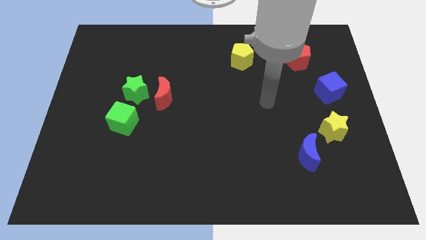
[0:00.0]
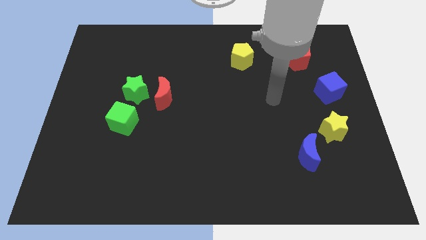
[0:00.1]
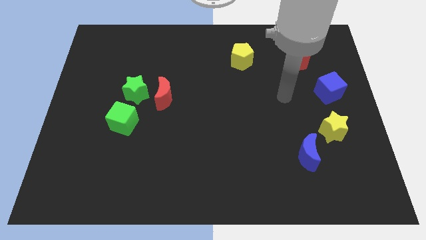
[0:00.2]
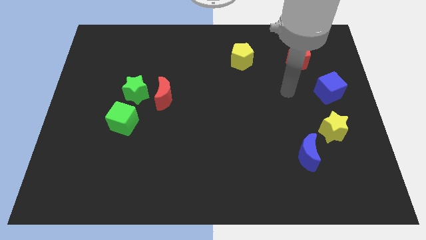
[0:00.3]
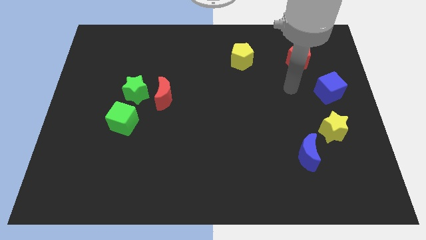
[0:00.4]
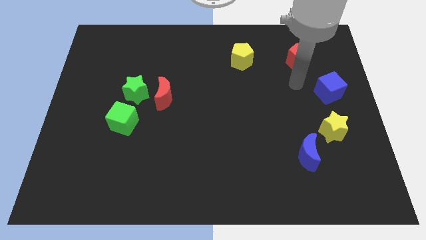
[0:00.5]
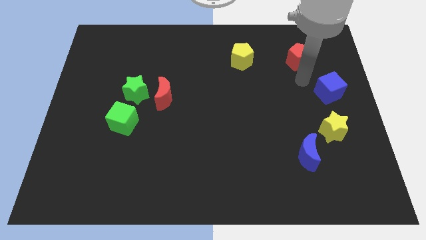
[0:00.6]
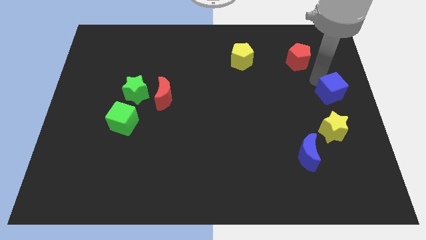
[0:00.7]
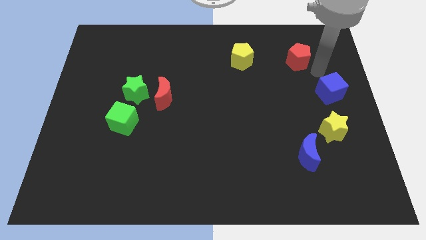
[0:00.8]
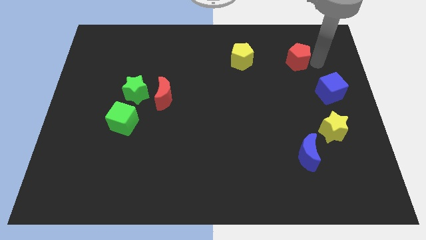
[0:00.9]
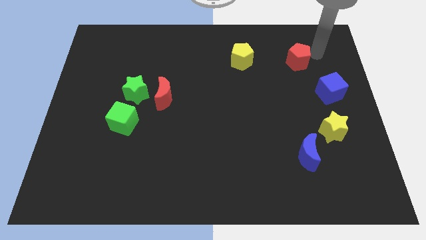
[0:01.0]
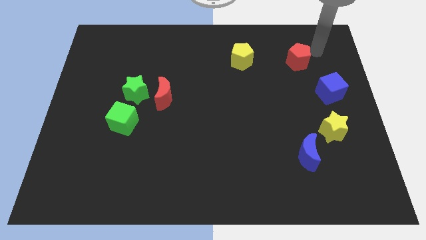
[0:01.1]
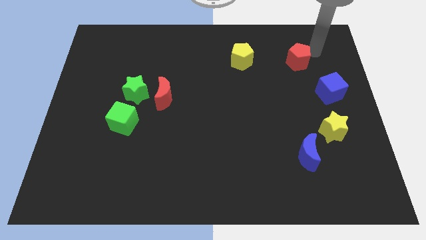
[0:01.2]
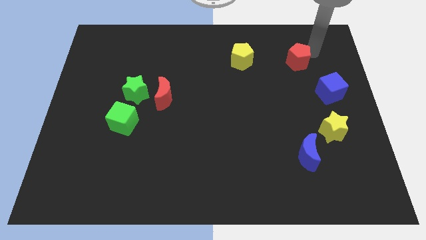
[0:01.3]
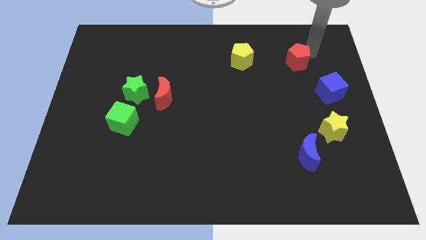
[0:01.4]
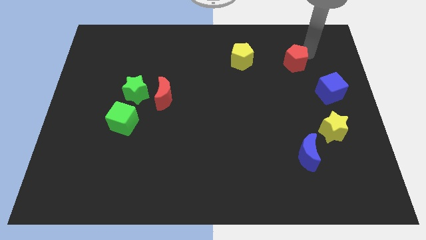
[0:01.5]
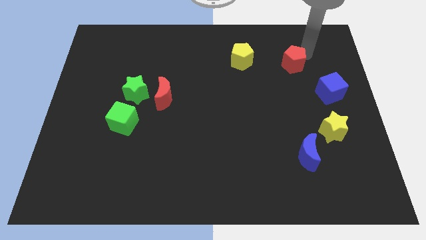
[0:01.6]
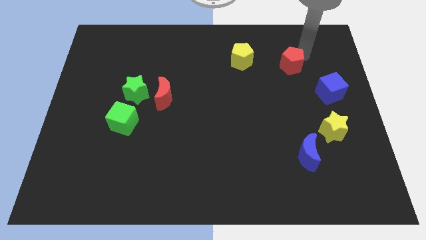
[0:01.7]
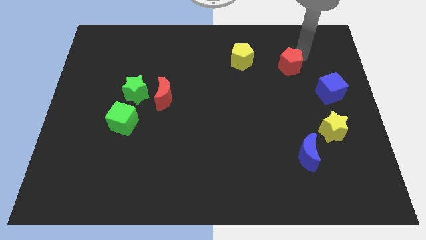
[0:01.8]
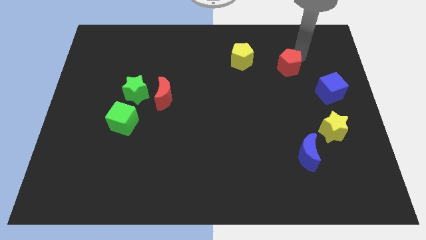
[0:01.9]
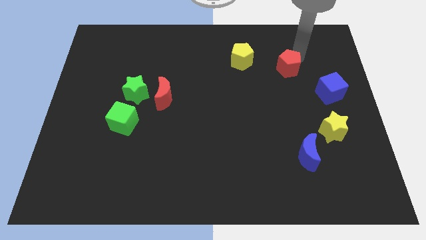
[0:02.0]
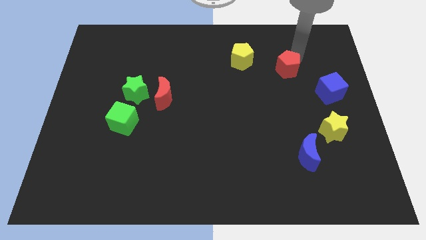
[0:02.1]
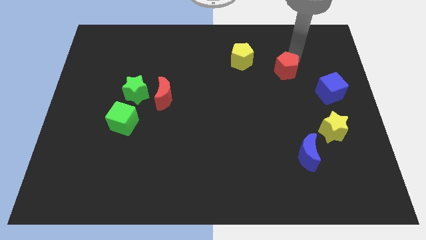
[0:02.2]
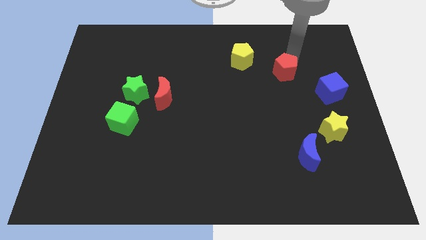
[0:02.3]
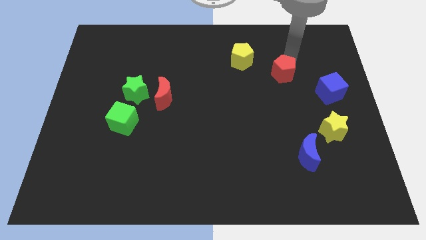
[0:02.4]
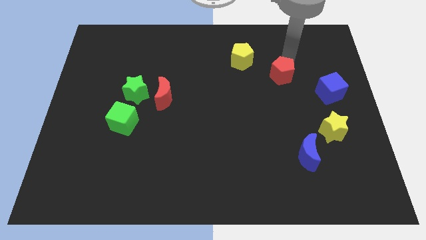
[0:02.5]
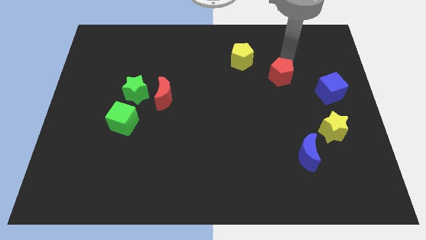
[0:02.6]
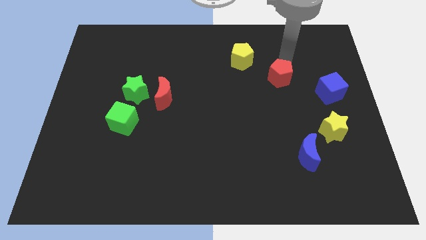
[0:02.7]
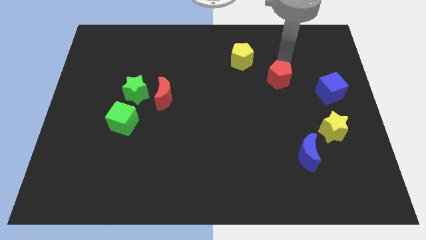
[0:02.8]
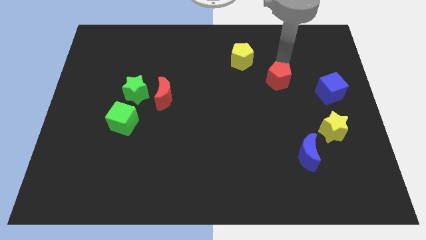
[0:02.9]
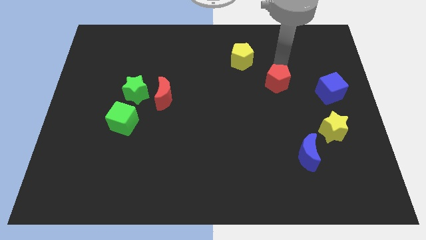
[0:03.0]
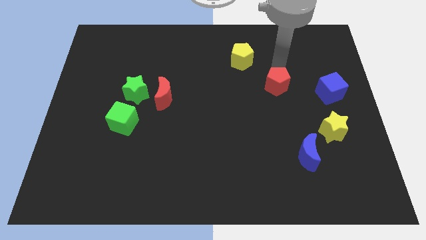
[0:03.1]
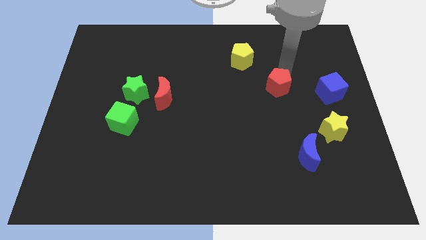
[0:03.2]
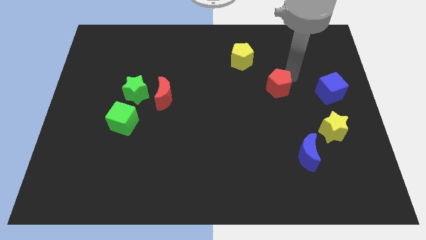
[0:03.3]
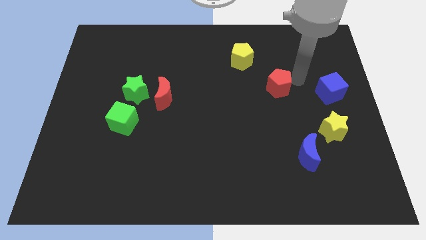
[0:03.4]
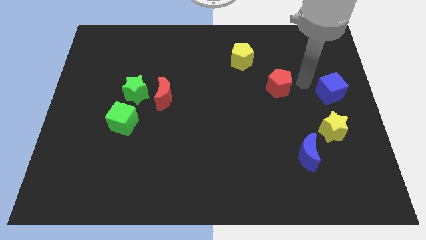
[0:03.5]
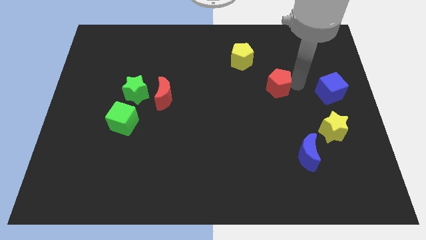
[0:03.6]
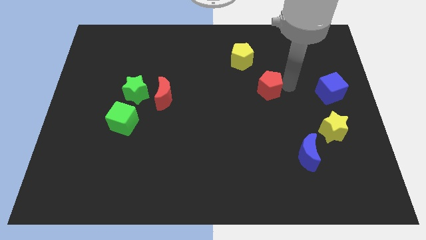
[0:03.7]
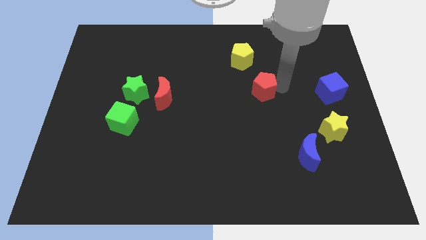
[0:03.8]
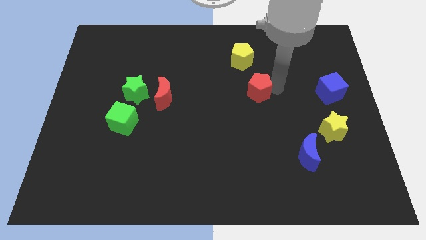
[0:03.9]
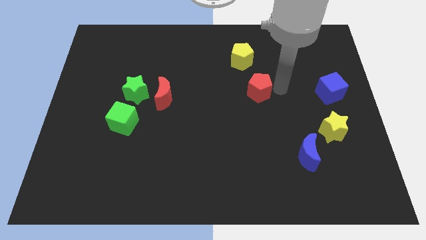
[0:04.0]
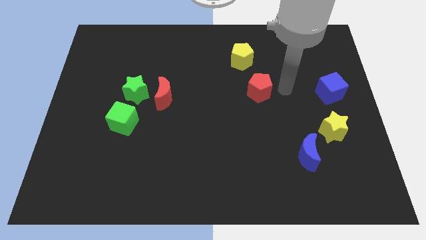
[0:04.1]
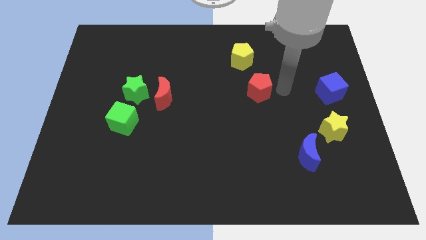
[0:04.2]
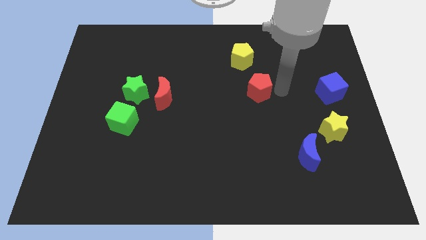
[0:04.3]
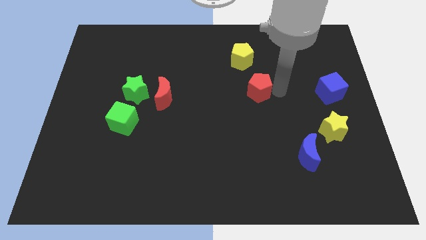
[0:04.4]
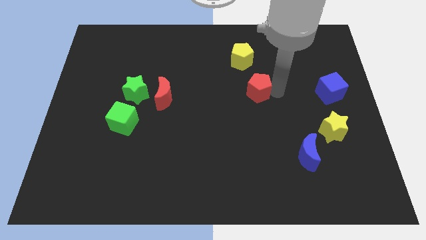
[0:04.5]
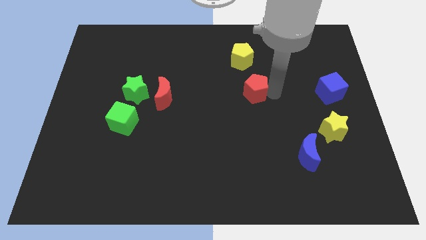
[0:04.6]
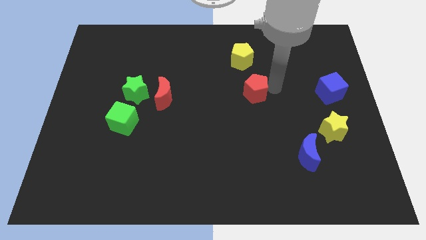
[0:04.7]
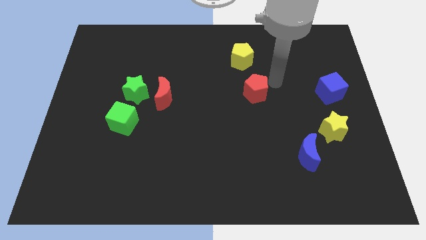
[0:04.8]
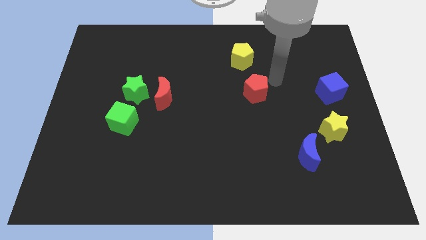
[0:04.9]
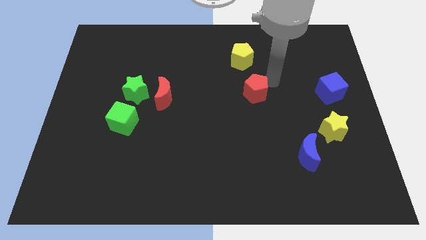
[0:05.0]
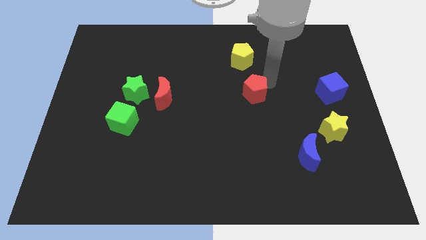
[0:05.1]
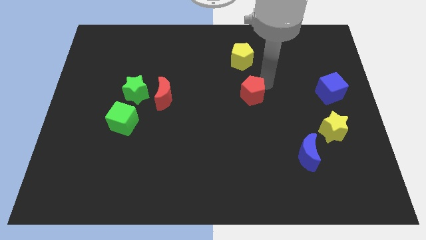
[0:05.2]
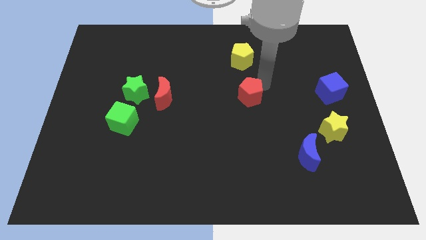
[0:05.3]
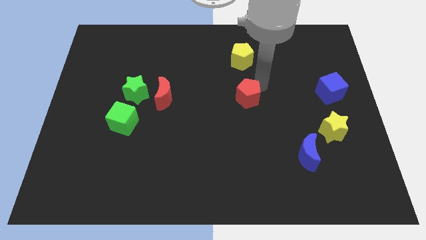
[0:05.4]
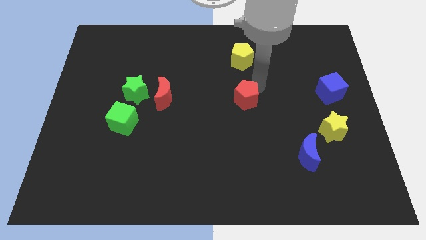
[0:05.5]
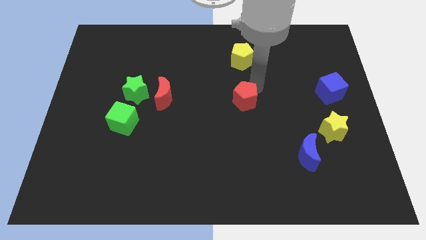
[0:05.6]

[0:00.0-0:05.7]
move the red pentagon diagonally down and to the left

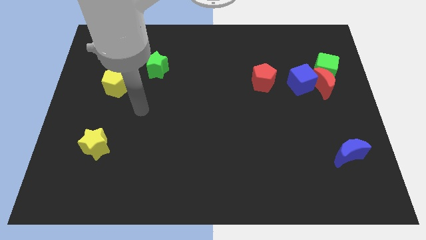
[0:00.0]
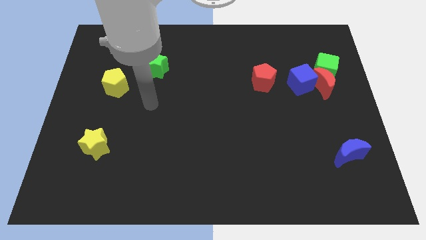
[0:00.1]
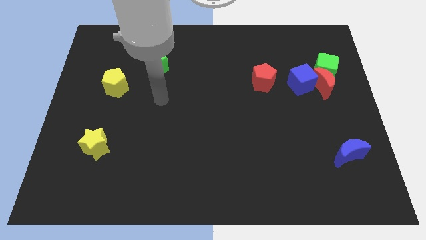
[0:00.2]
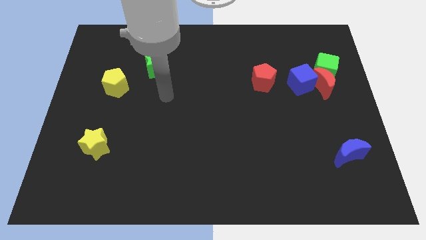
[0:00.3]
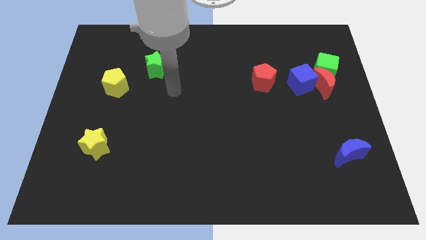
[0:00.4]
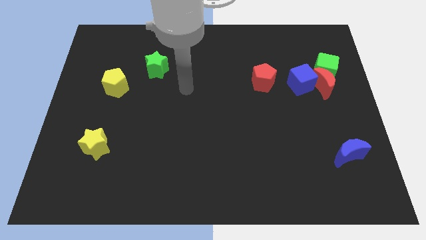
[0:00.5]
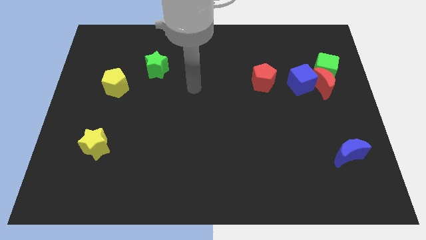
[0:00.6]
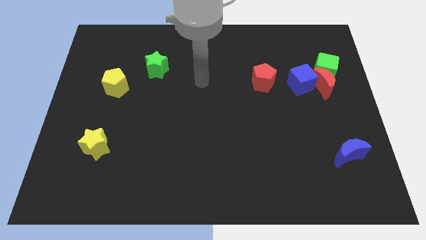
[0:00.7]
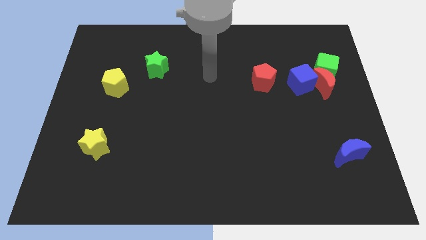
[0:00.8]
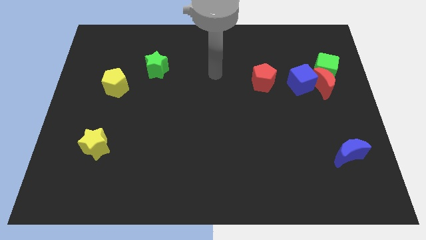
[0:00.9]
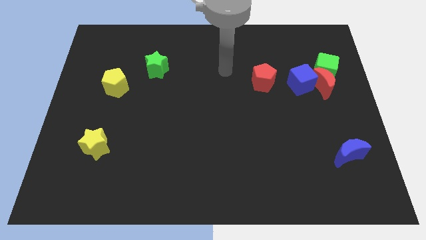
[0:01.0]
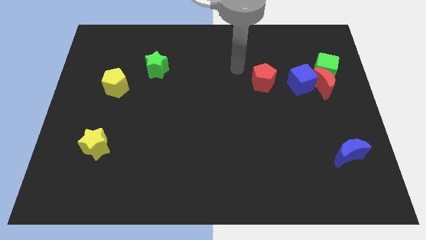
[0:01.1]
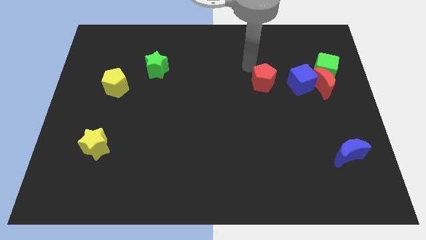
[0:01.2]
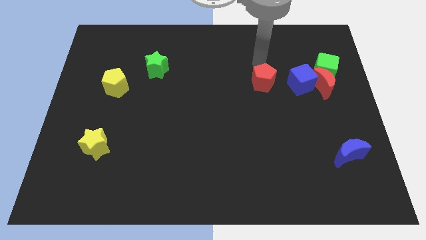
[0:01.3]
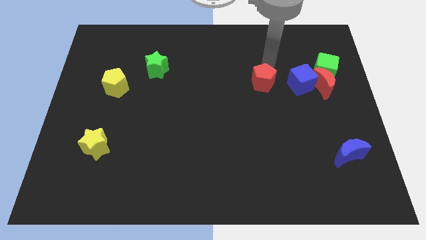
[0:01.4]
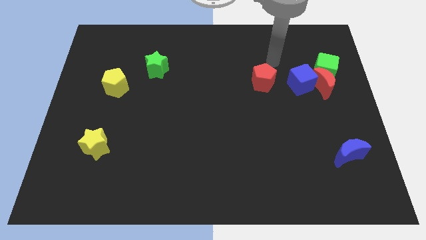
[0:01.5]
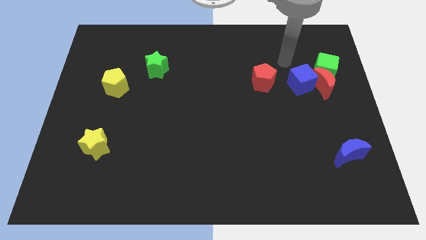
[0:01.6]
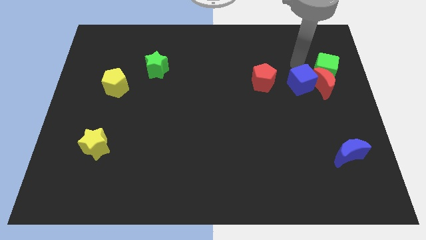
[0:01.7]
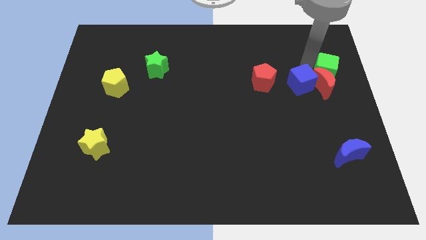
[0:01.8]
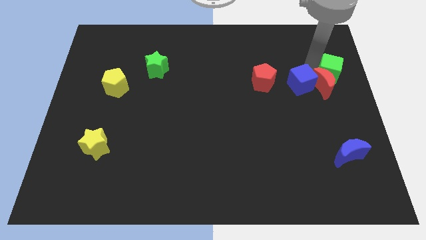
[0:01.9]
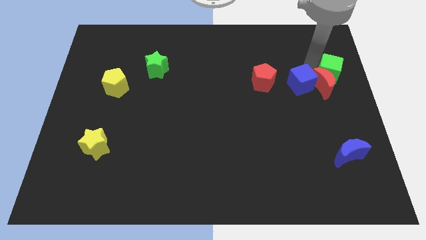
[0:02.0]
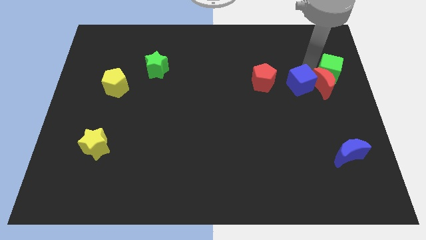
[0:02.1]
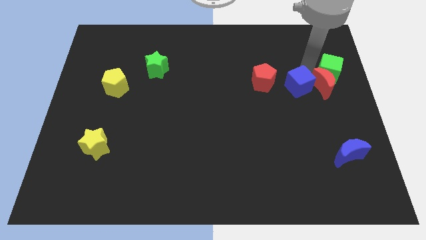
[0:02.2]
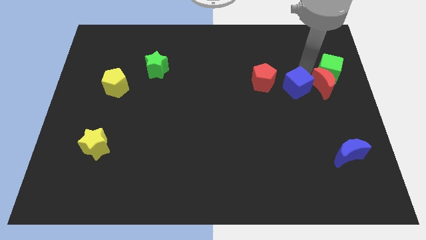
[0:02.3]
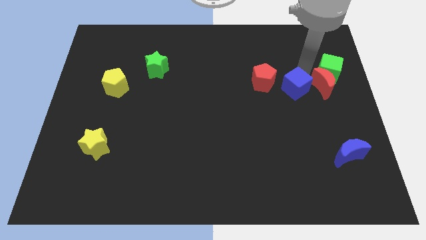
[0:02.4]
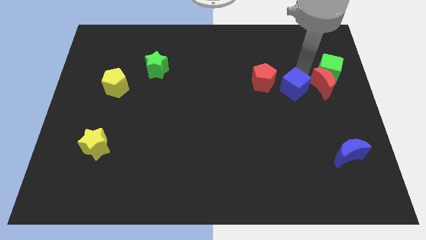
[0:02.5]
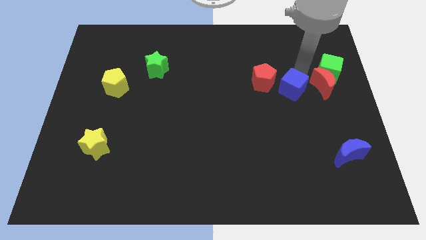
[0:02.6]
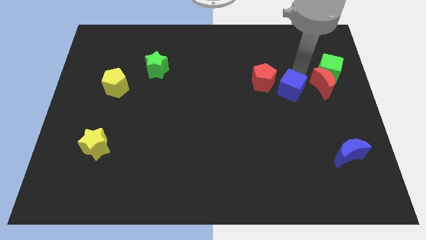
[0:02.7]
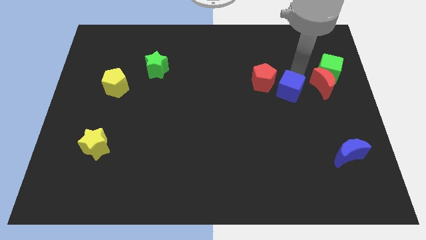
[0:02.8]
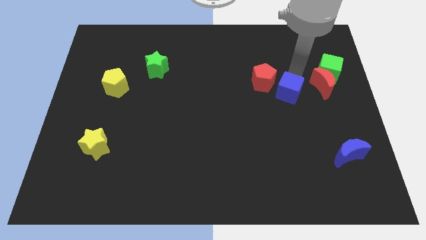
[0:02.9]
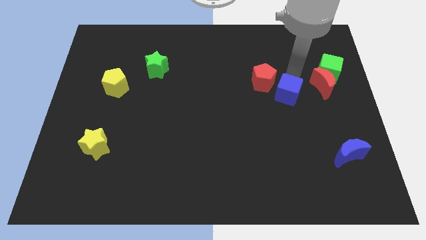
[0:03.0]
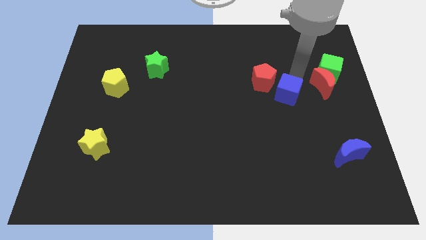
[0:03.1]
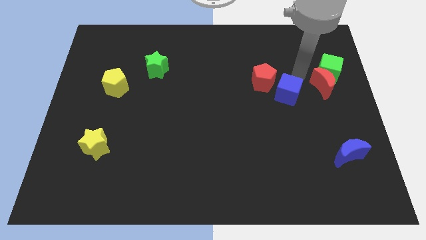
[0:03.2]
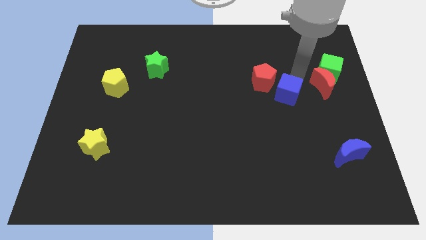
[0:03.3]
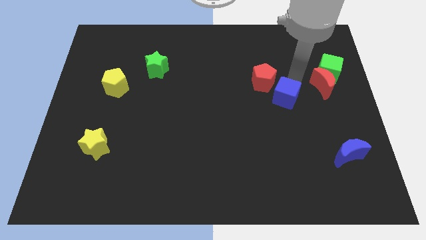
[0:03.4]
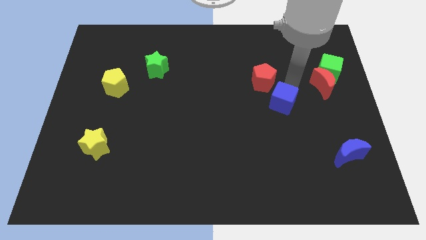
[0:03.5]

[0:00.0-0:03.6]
move the blue cube slightly downwards and left
